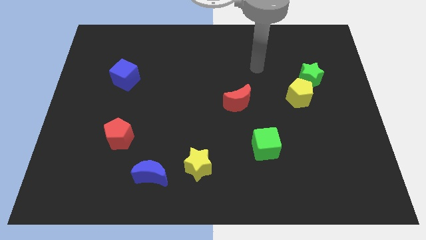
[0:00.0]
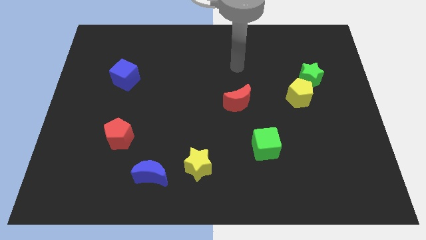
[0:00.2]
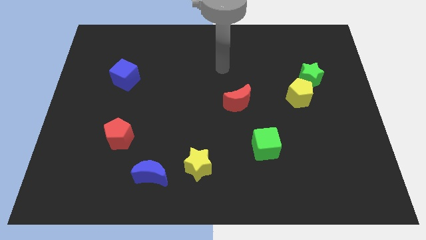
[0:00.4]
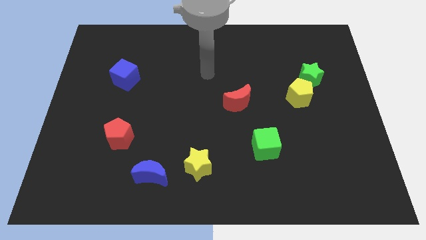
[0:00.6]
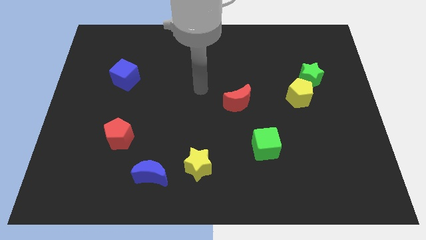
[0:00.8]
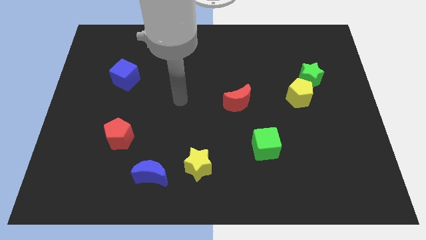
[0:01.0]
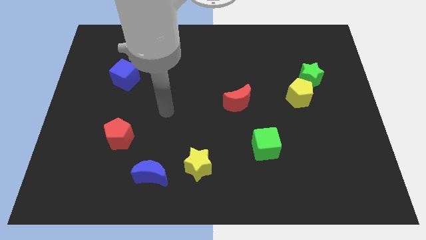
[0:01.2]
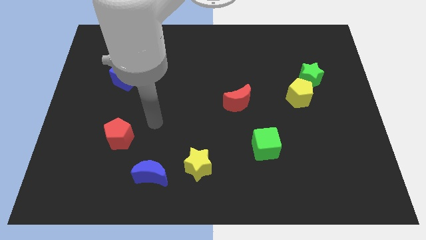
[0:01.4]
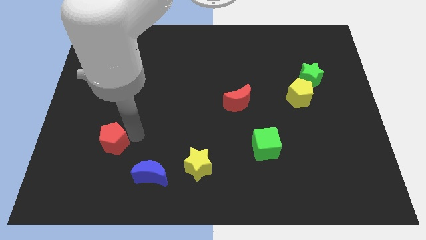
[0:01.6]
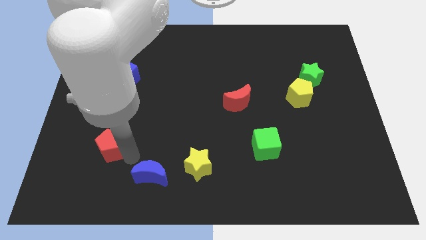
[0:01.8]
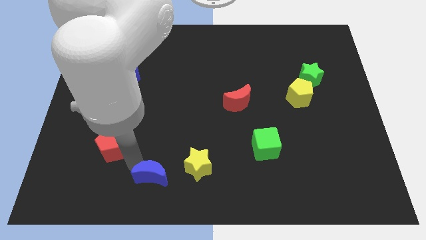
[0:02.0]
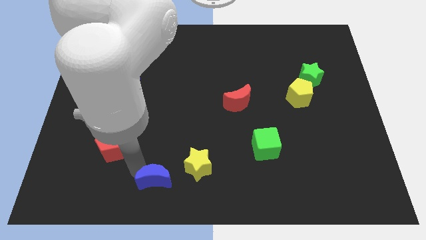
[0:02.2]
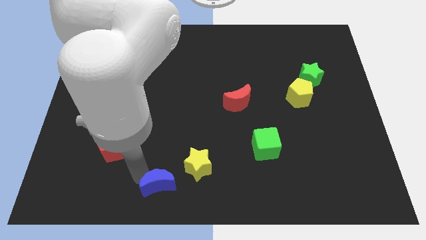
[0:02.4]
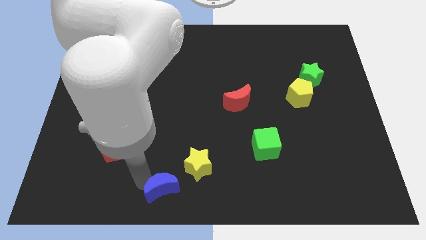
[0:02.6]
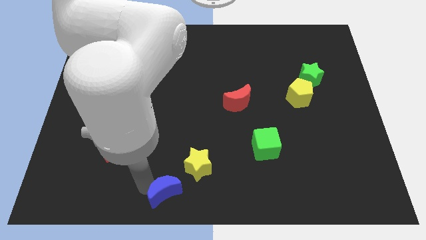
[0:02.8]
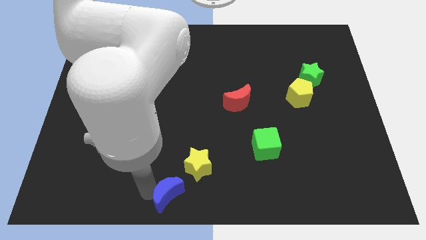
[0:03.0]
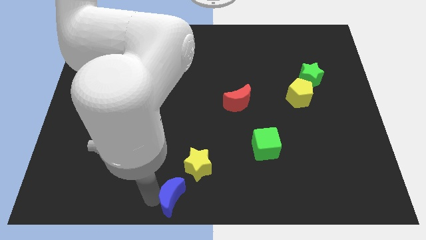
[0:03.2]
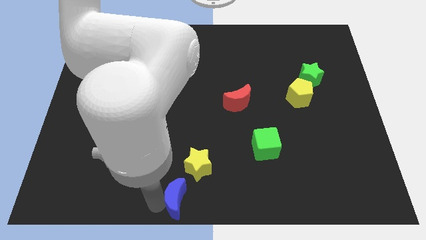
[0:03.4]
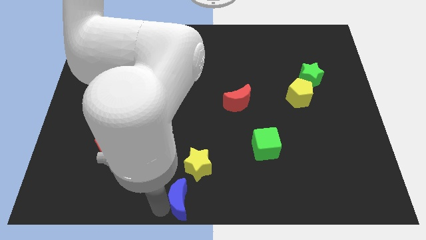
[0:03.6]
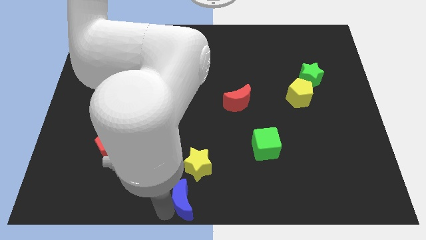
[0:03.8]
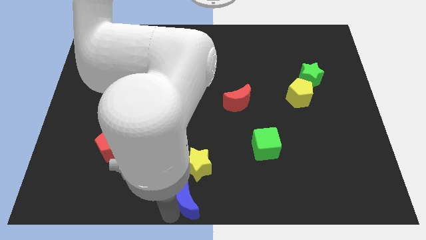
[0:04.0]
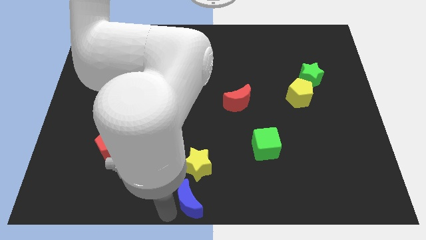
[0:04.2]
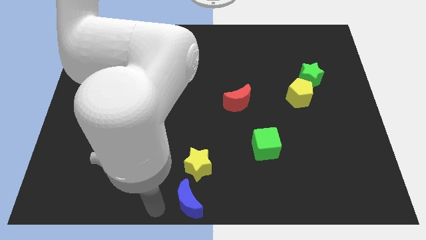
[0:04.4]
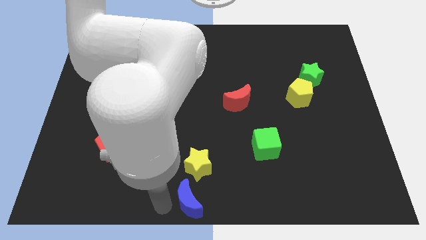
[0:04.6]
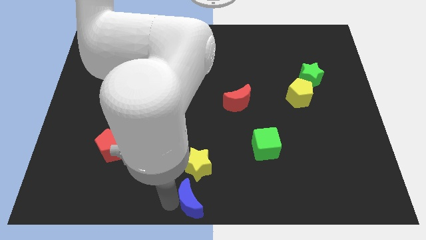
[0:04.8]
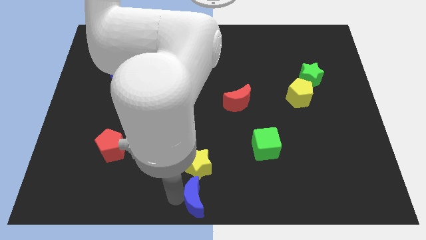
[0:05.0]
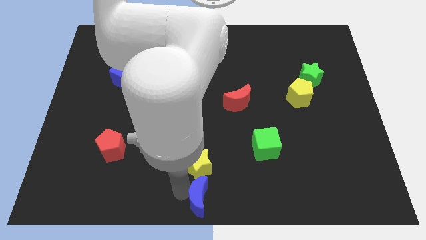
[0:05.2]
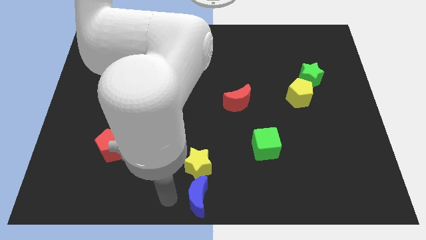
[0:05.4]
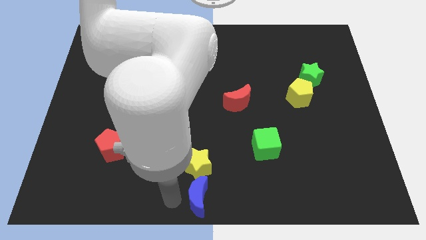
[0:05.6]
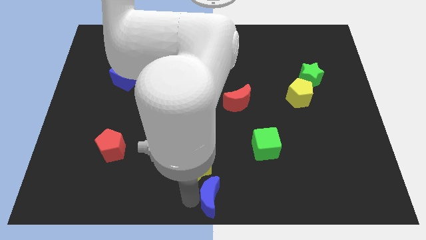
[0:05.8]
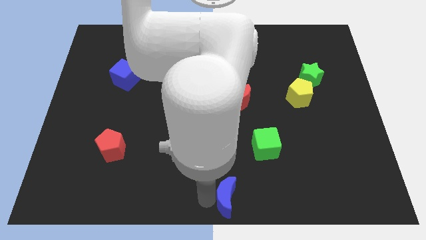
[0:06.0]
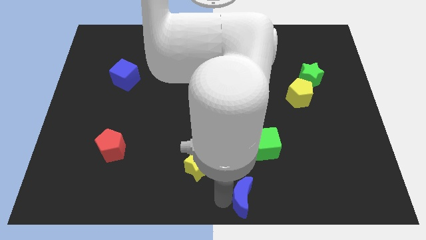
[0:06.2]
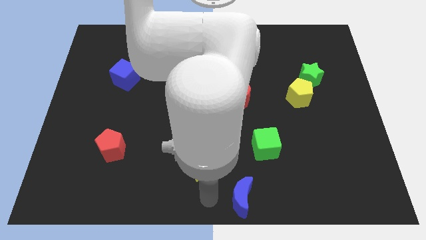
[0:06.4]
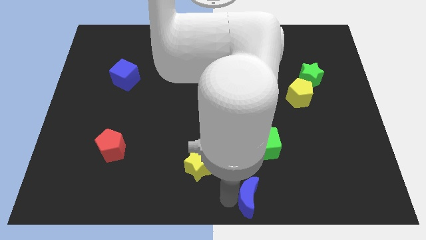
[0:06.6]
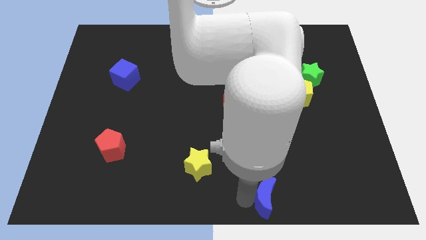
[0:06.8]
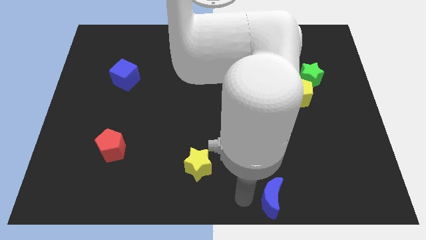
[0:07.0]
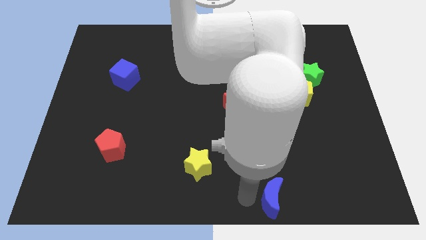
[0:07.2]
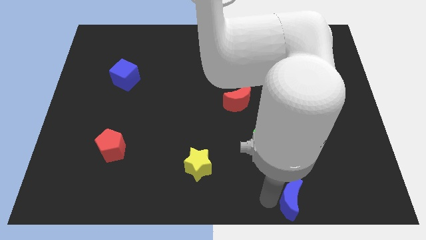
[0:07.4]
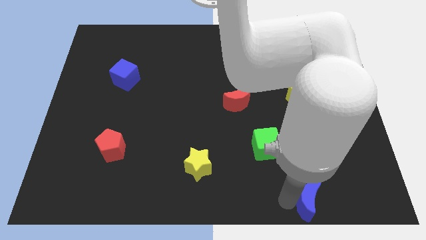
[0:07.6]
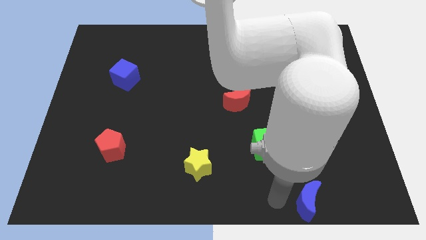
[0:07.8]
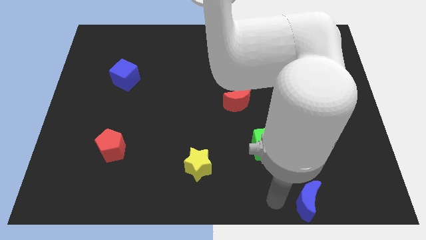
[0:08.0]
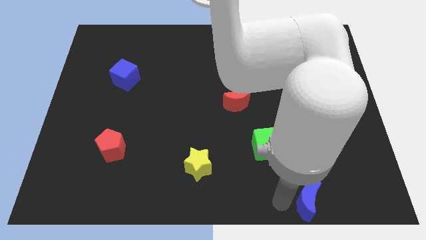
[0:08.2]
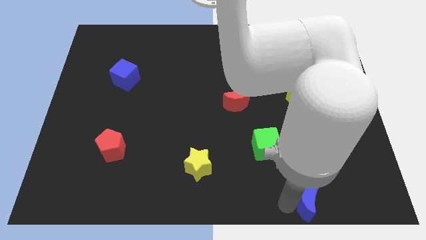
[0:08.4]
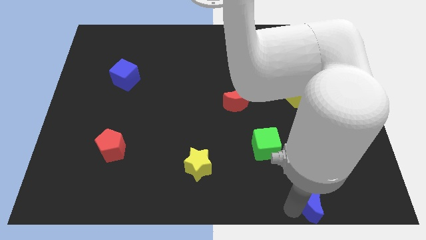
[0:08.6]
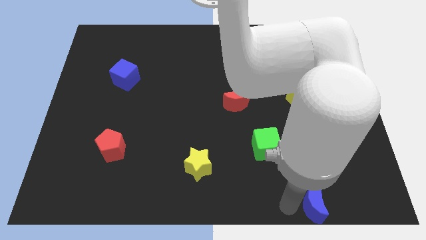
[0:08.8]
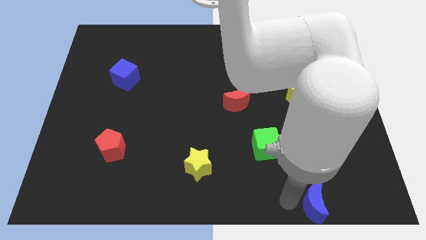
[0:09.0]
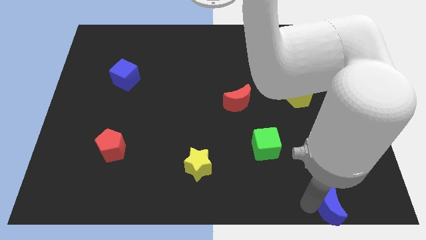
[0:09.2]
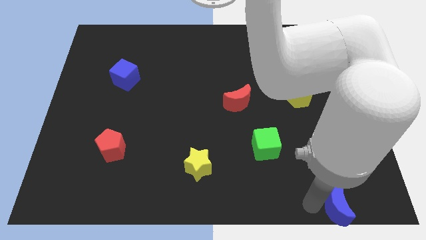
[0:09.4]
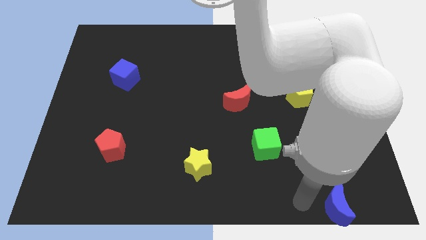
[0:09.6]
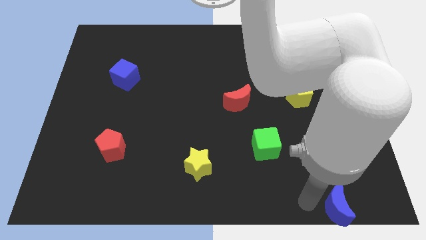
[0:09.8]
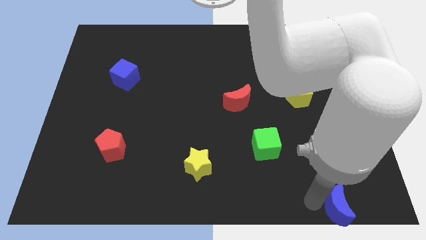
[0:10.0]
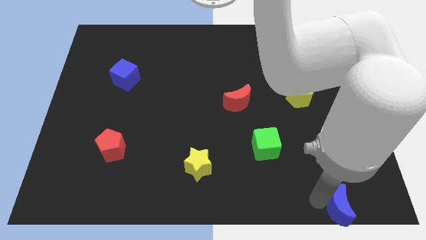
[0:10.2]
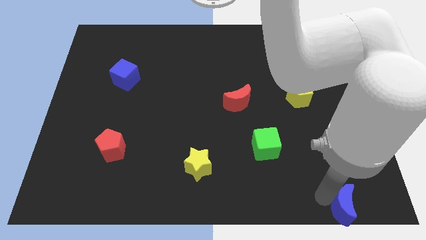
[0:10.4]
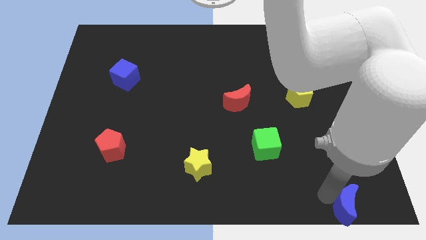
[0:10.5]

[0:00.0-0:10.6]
push the blue moon to the bottom right

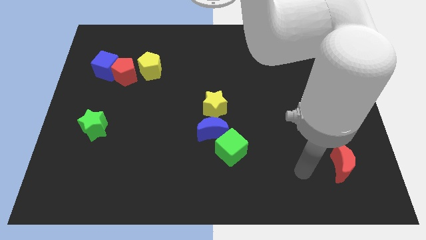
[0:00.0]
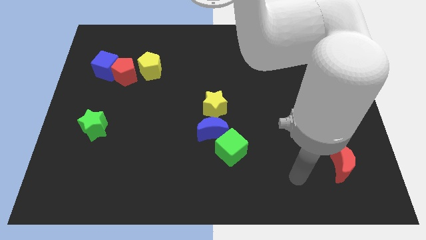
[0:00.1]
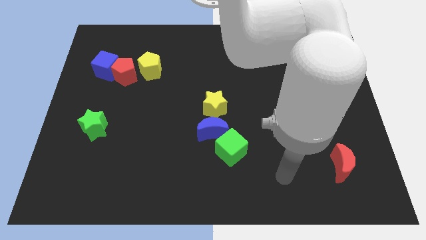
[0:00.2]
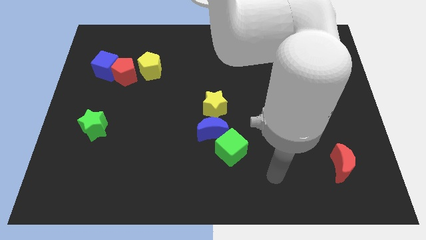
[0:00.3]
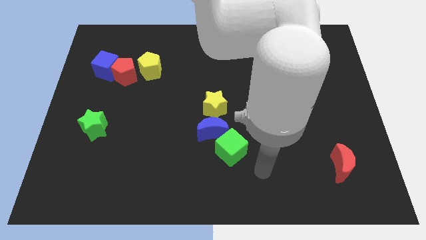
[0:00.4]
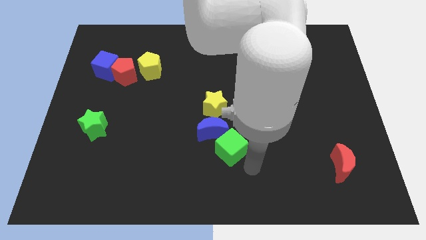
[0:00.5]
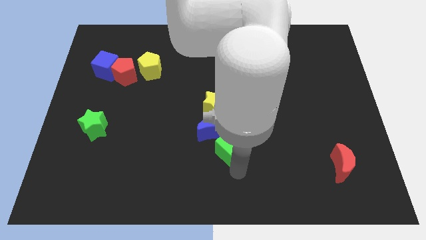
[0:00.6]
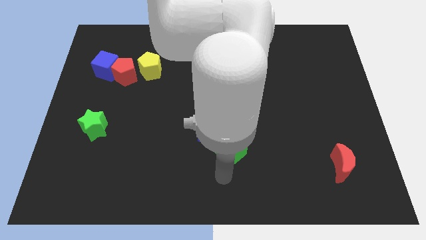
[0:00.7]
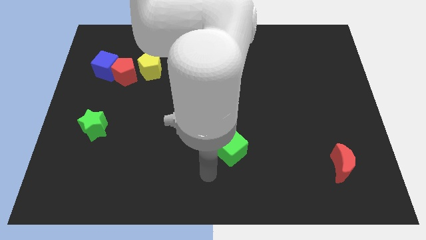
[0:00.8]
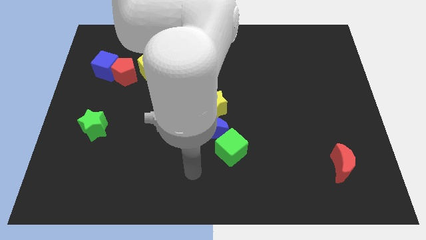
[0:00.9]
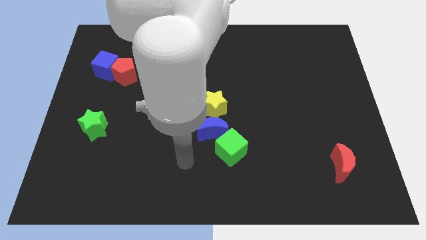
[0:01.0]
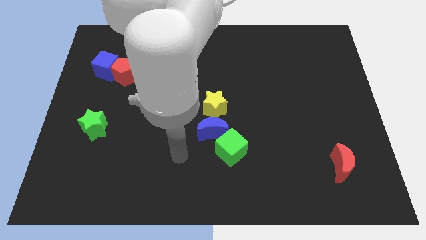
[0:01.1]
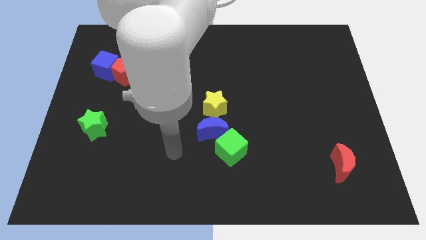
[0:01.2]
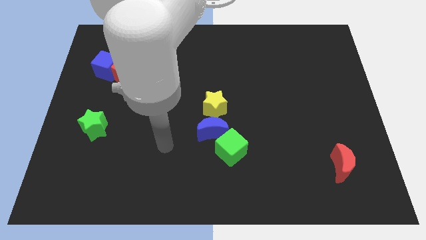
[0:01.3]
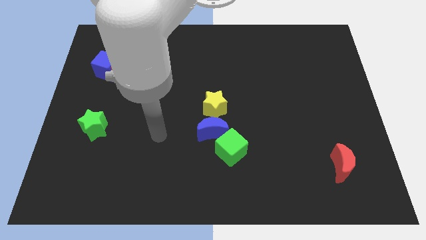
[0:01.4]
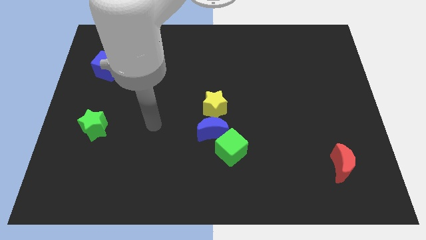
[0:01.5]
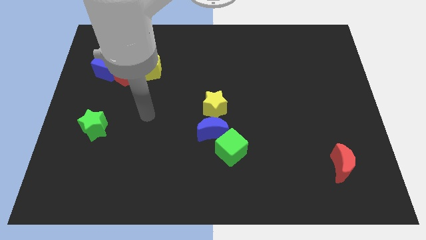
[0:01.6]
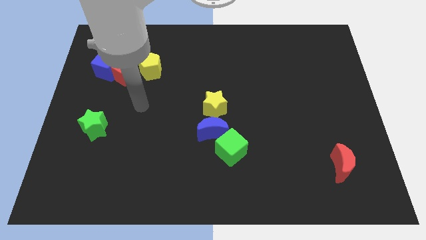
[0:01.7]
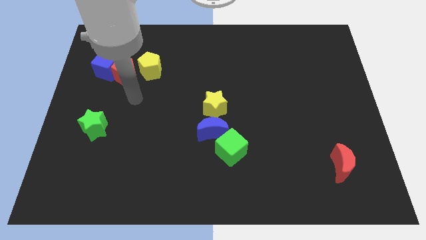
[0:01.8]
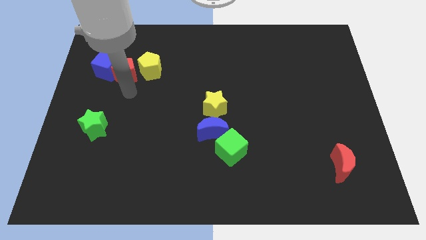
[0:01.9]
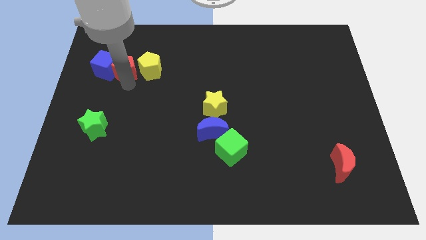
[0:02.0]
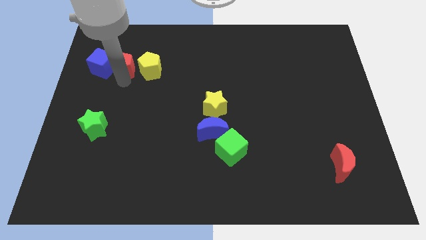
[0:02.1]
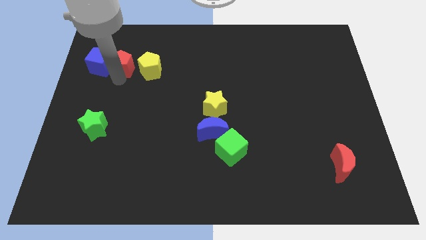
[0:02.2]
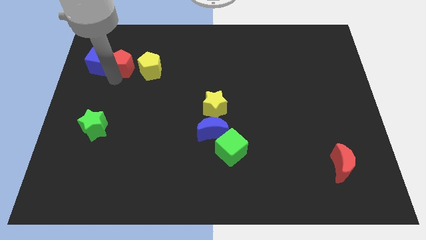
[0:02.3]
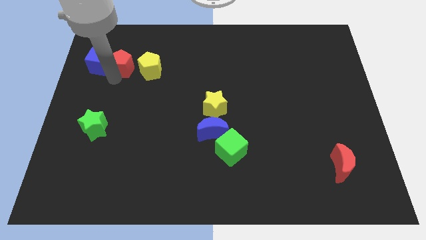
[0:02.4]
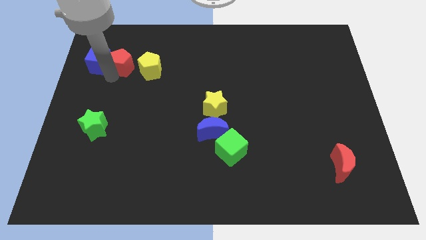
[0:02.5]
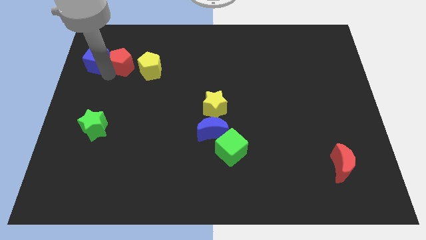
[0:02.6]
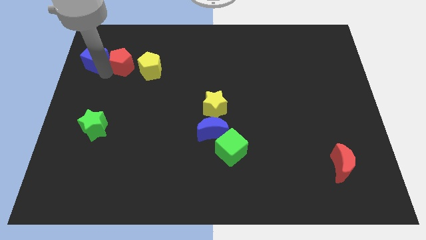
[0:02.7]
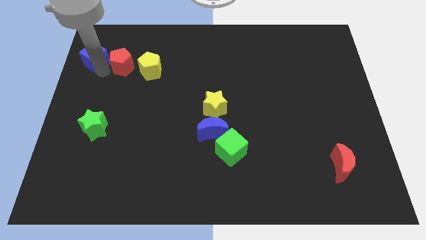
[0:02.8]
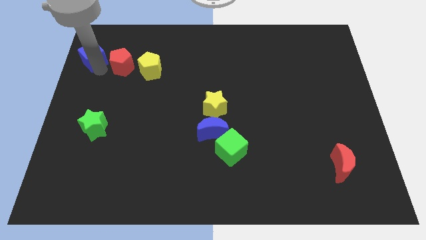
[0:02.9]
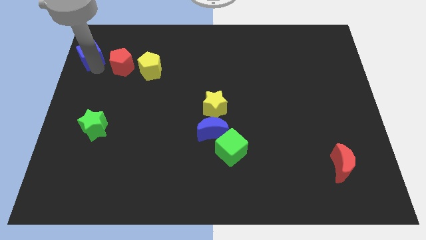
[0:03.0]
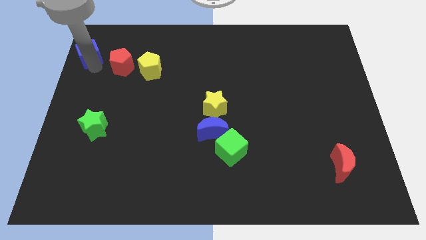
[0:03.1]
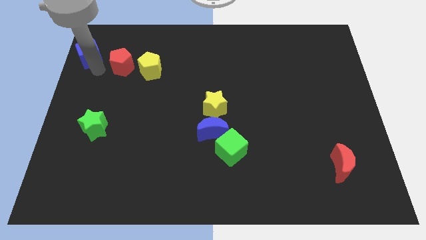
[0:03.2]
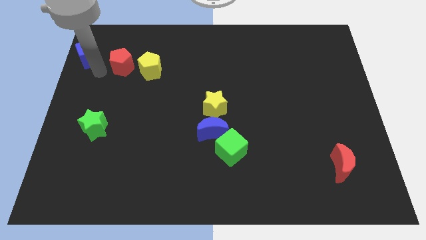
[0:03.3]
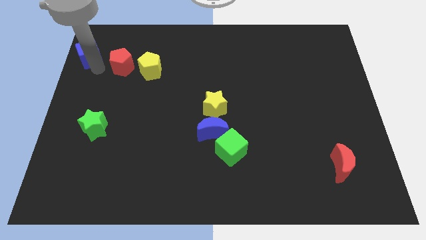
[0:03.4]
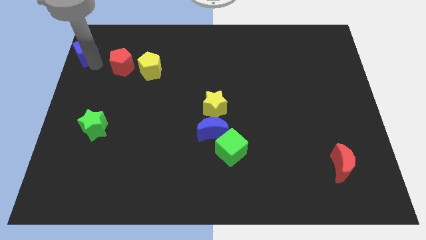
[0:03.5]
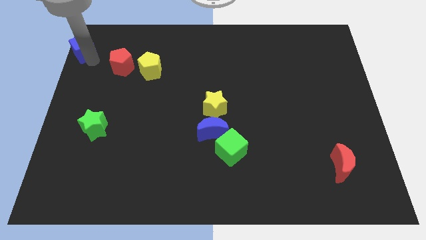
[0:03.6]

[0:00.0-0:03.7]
put the blue cube to the upper left corner
